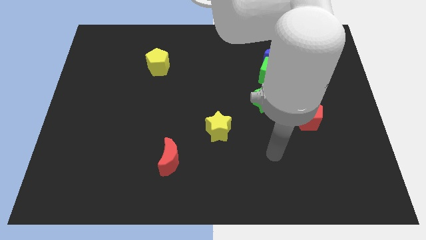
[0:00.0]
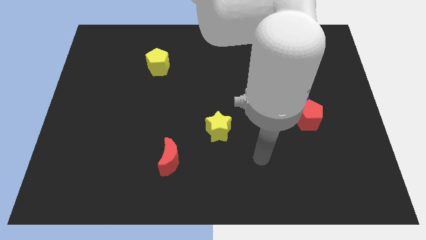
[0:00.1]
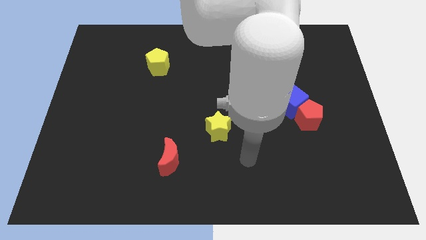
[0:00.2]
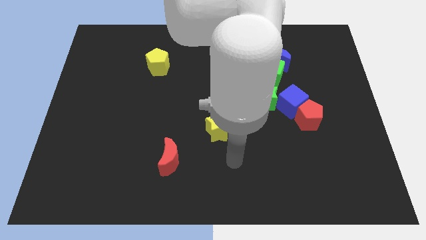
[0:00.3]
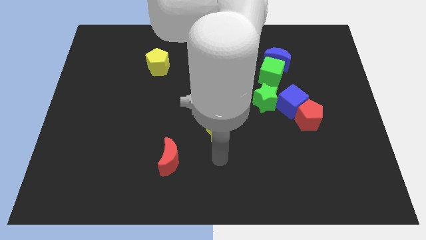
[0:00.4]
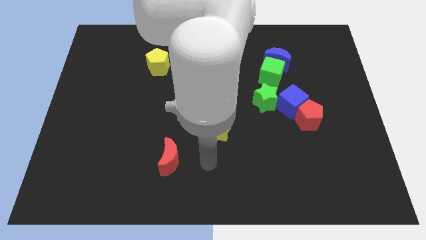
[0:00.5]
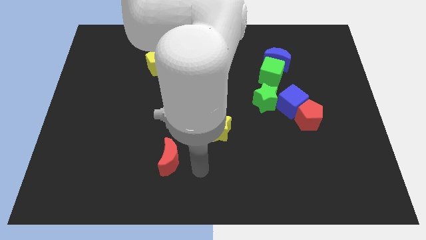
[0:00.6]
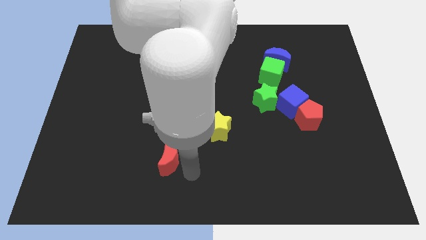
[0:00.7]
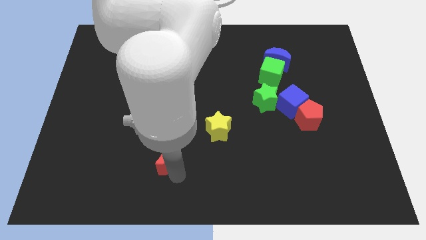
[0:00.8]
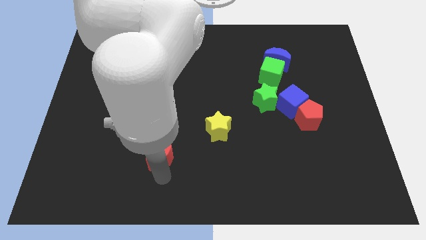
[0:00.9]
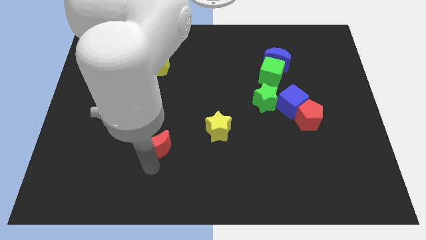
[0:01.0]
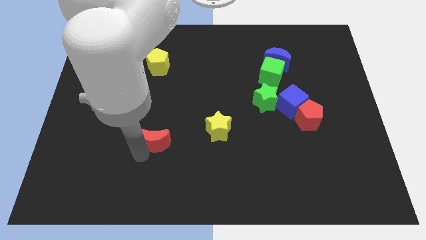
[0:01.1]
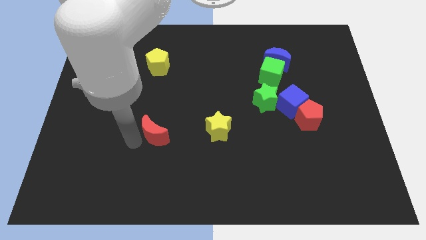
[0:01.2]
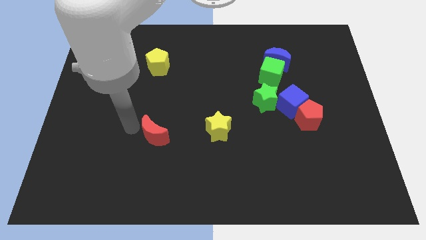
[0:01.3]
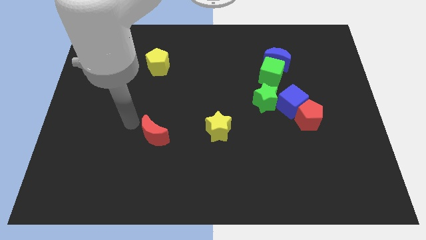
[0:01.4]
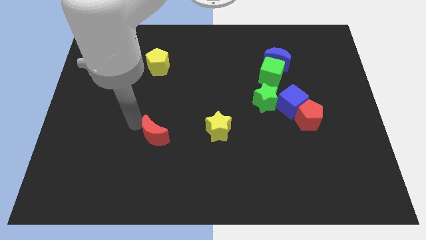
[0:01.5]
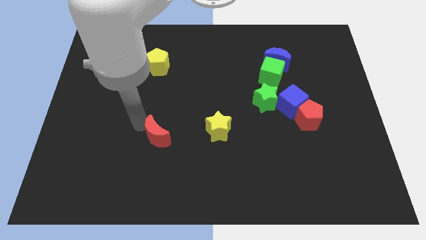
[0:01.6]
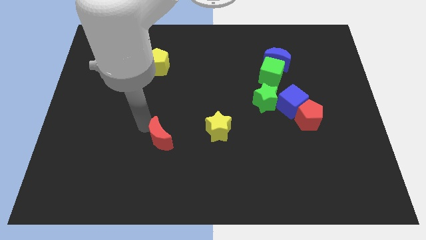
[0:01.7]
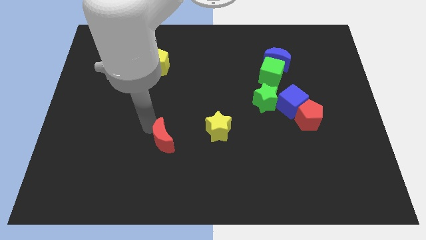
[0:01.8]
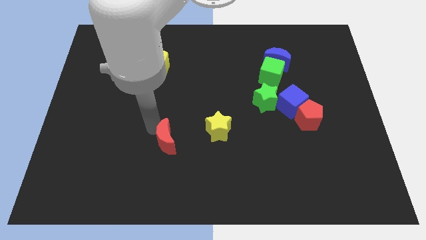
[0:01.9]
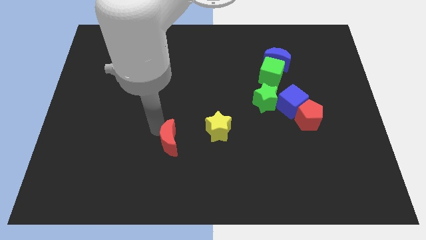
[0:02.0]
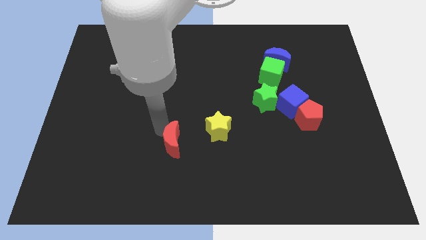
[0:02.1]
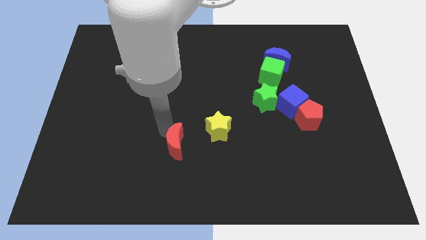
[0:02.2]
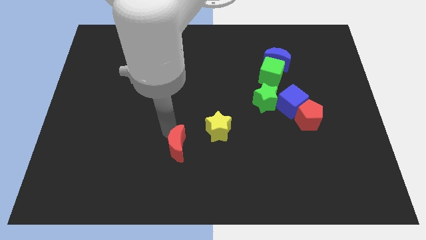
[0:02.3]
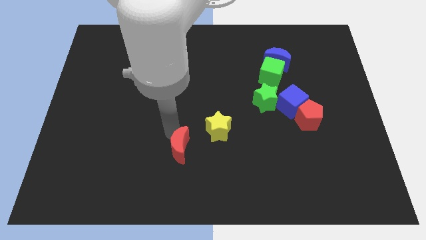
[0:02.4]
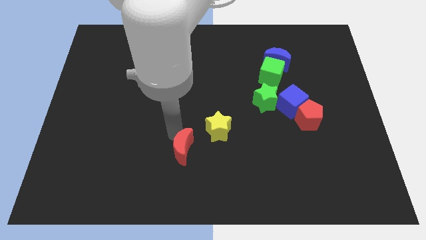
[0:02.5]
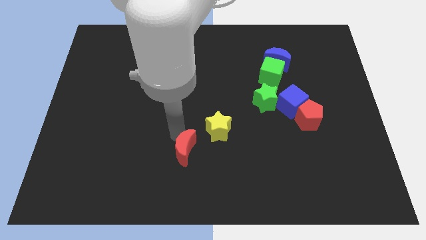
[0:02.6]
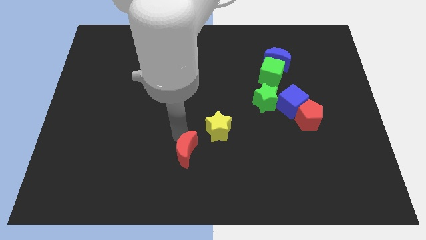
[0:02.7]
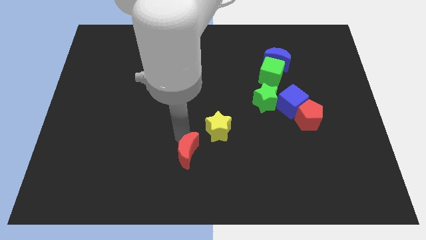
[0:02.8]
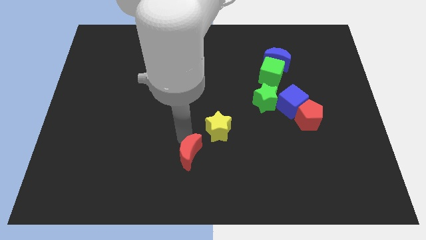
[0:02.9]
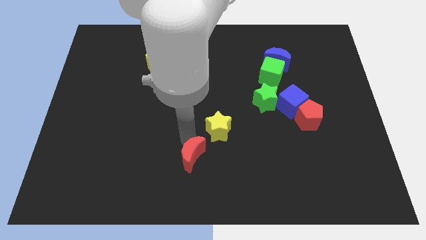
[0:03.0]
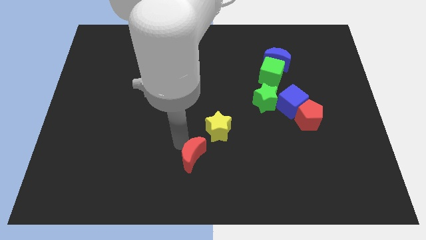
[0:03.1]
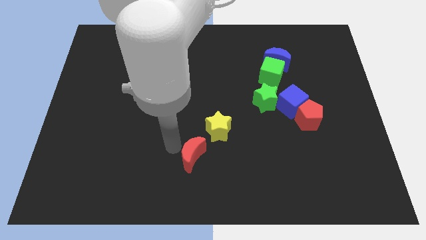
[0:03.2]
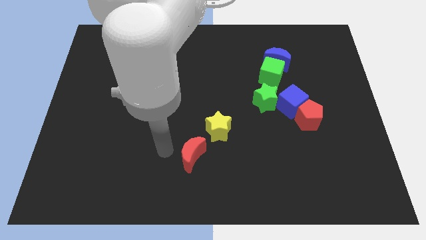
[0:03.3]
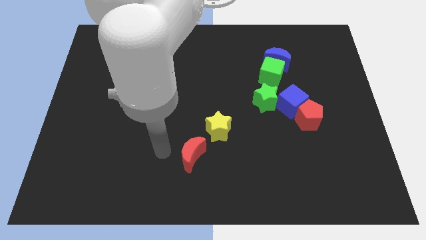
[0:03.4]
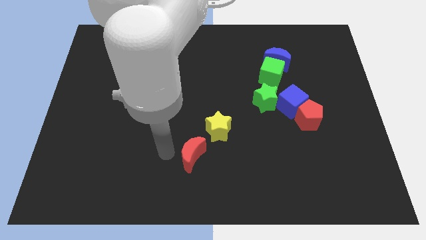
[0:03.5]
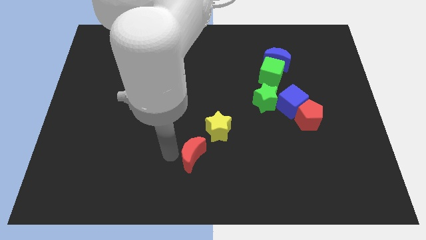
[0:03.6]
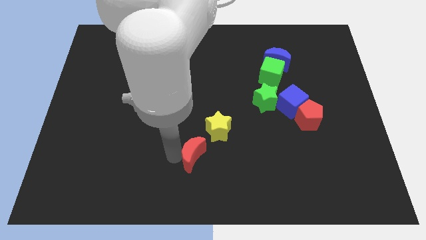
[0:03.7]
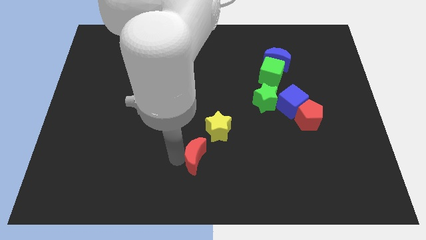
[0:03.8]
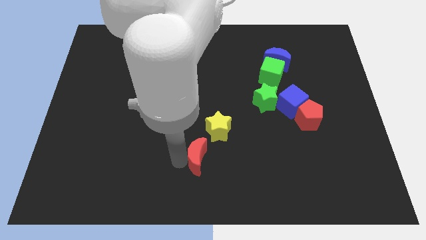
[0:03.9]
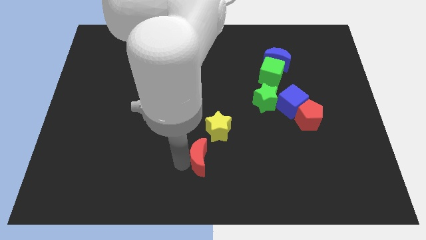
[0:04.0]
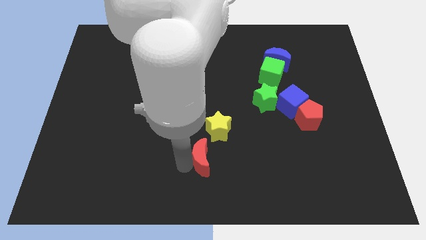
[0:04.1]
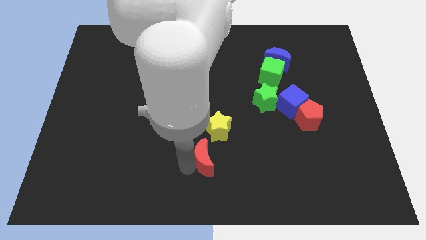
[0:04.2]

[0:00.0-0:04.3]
slightly push the red moon right

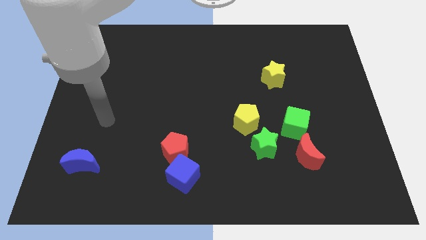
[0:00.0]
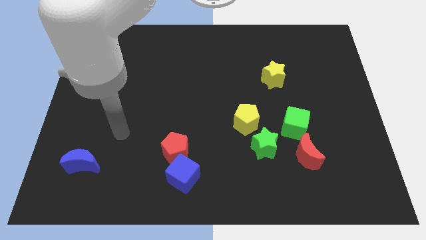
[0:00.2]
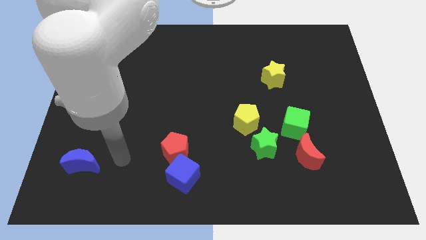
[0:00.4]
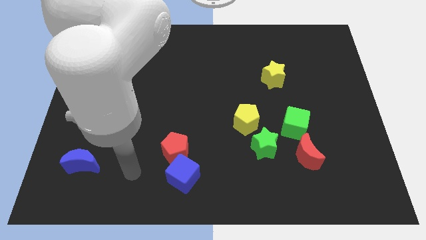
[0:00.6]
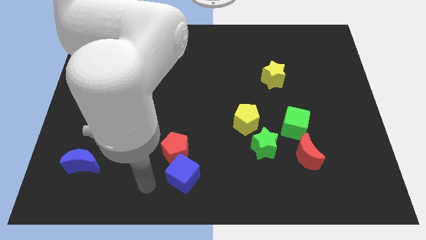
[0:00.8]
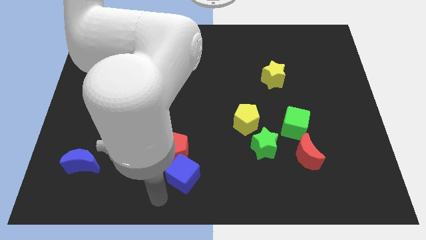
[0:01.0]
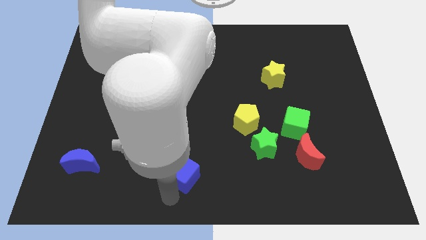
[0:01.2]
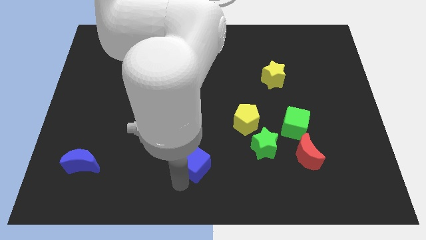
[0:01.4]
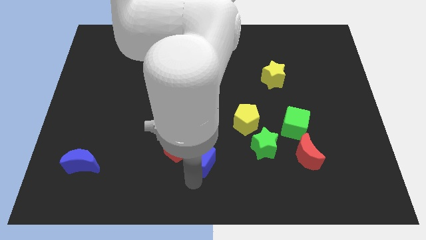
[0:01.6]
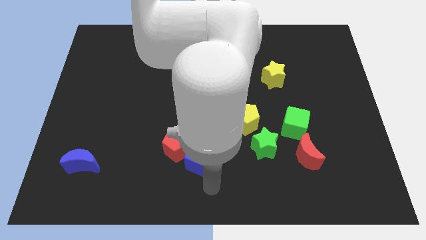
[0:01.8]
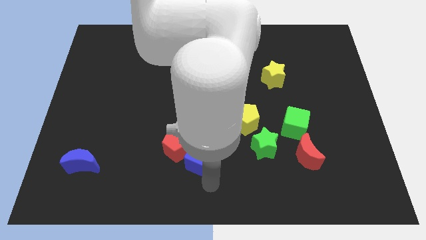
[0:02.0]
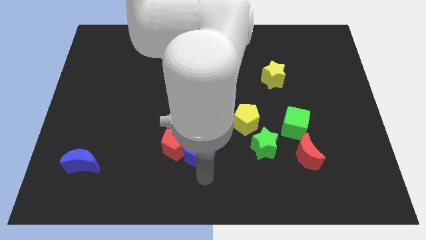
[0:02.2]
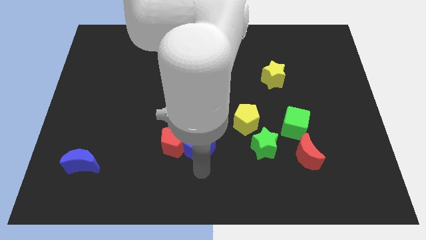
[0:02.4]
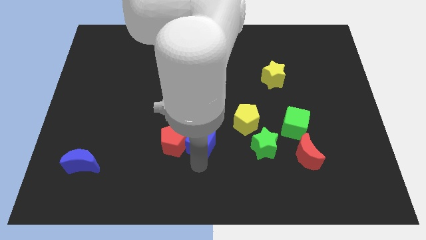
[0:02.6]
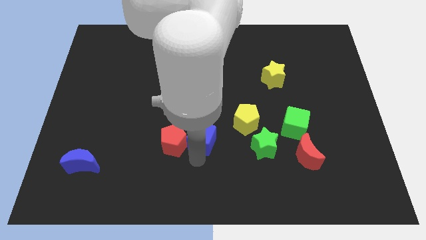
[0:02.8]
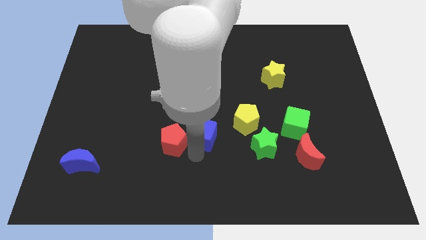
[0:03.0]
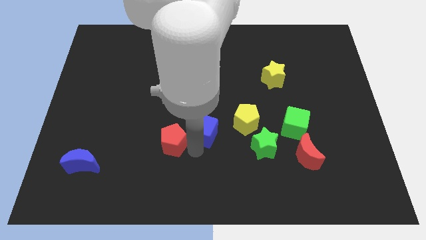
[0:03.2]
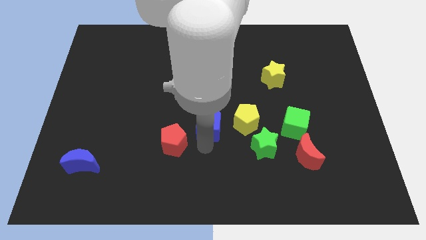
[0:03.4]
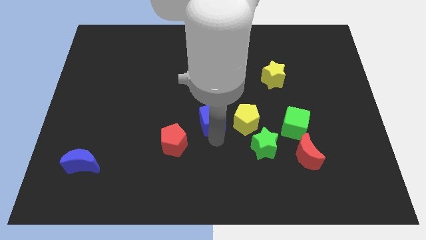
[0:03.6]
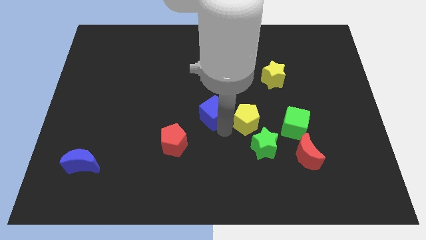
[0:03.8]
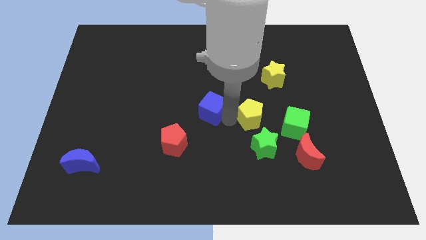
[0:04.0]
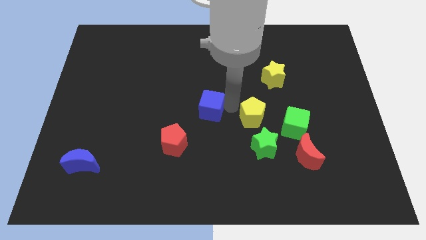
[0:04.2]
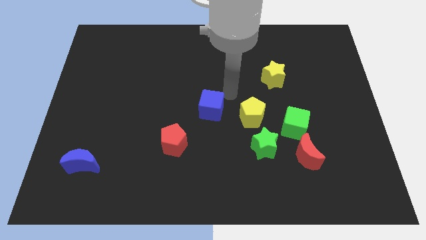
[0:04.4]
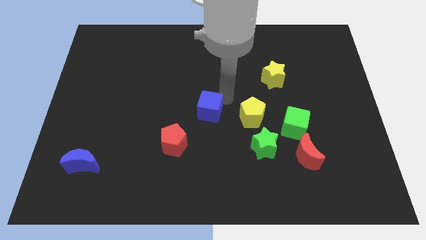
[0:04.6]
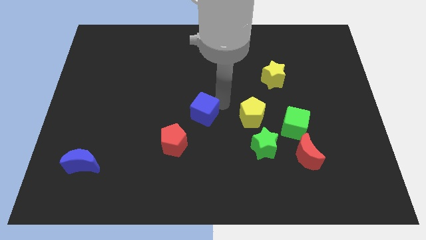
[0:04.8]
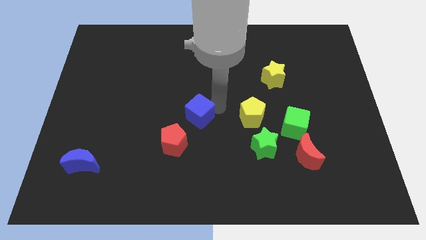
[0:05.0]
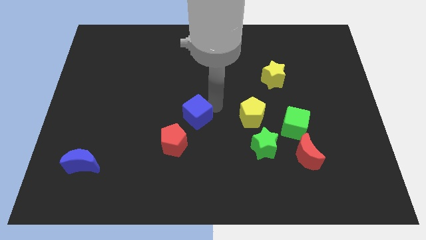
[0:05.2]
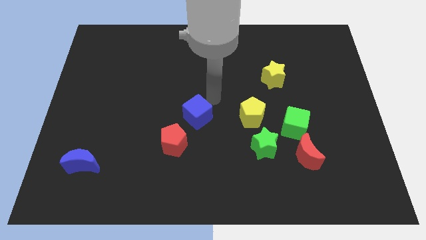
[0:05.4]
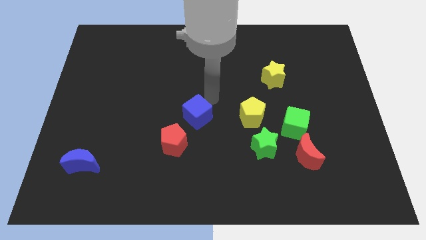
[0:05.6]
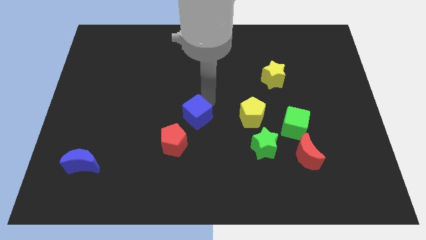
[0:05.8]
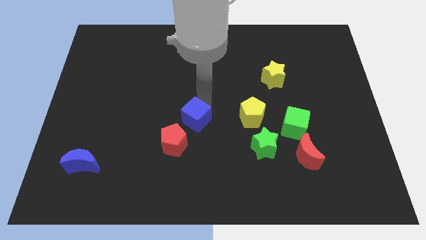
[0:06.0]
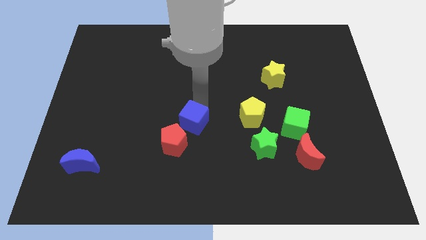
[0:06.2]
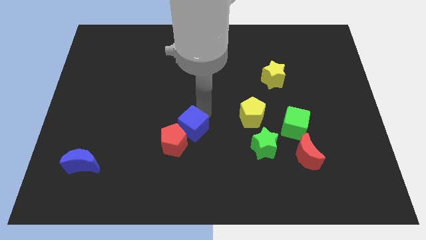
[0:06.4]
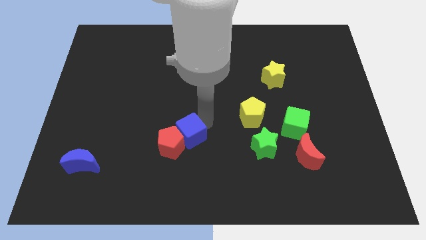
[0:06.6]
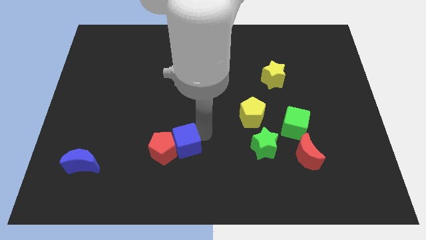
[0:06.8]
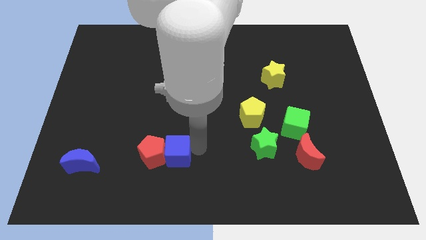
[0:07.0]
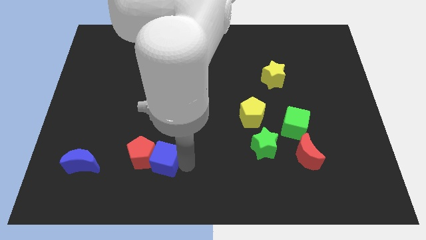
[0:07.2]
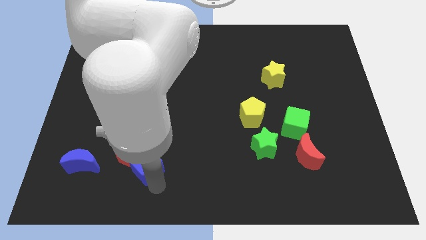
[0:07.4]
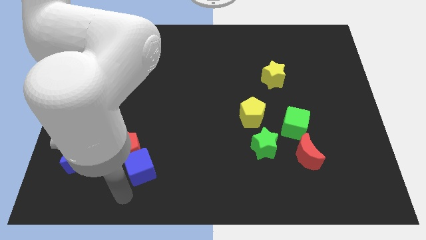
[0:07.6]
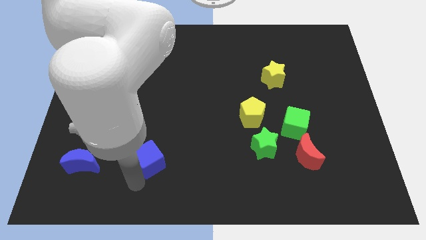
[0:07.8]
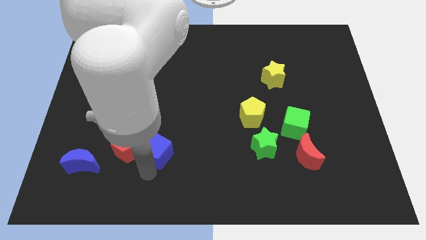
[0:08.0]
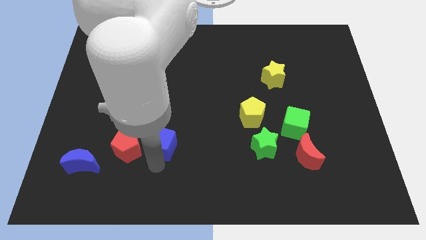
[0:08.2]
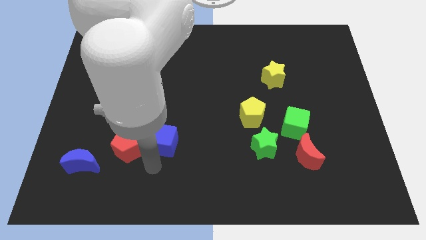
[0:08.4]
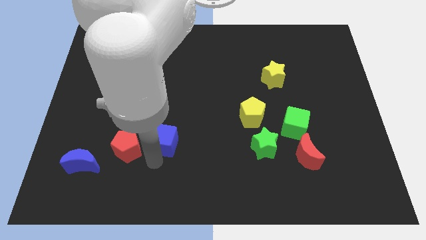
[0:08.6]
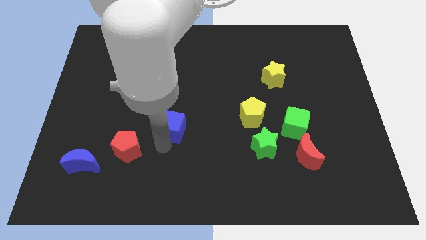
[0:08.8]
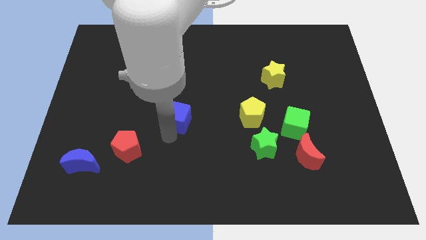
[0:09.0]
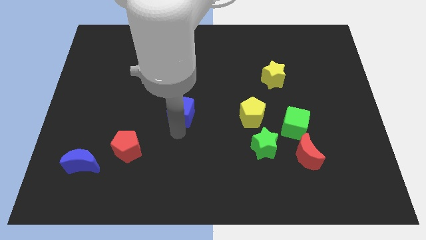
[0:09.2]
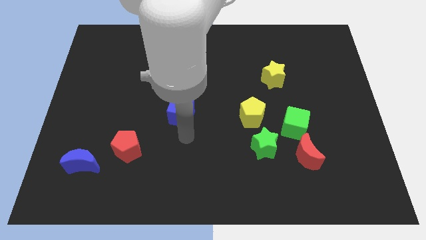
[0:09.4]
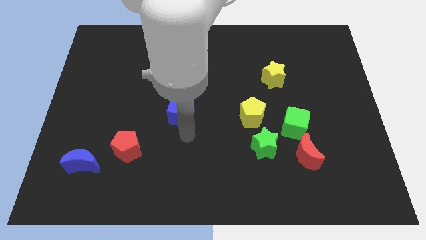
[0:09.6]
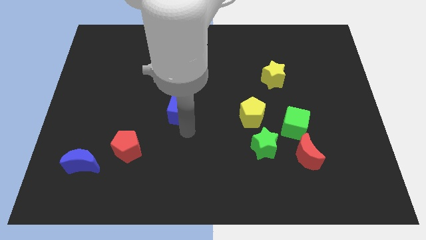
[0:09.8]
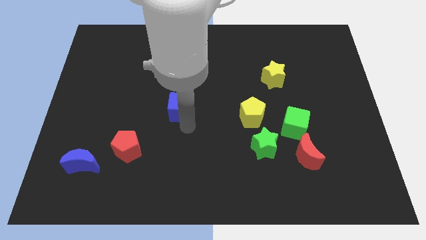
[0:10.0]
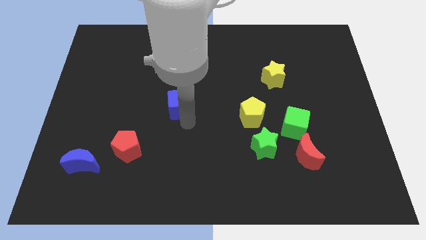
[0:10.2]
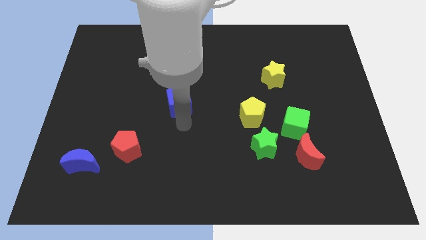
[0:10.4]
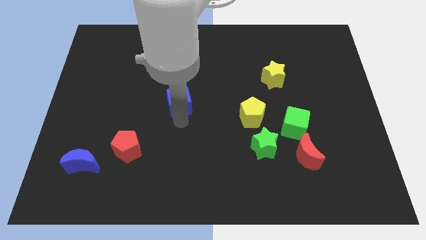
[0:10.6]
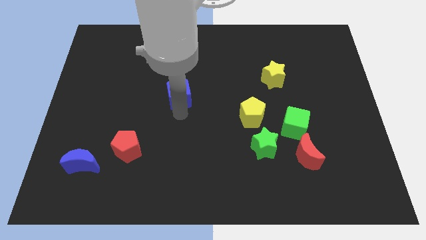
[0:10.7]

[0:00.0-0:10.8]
push the blue cube upwards
